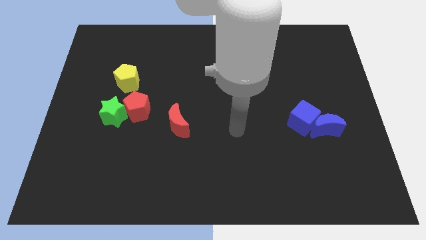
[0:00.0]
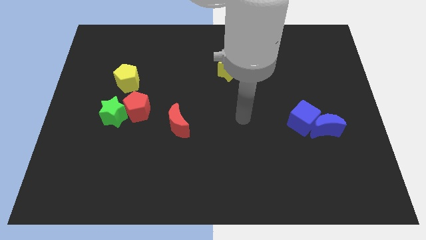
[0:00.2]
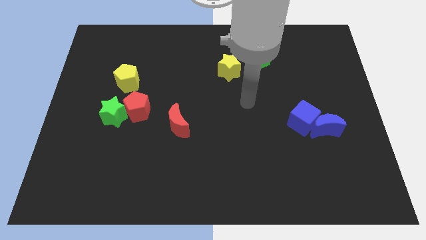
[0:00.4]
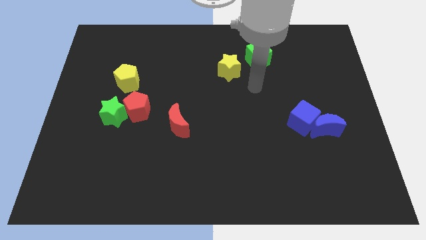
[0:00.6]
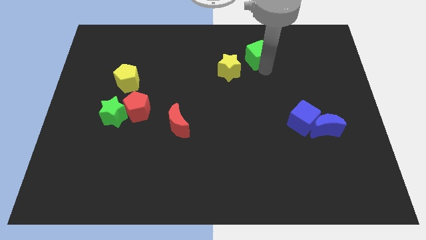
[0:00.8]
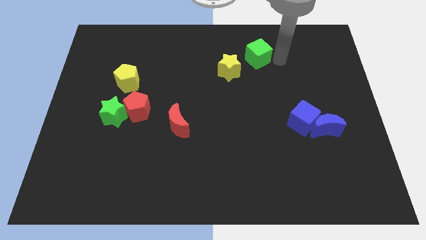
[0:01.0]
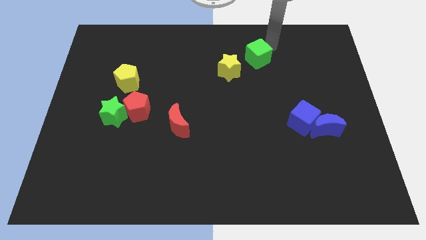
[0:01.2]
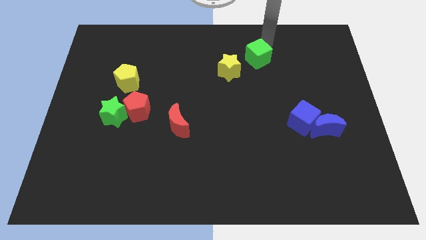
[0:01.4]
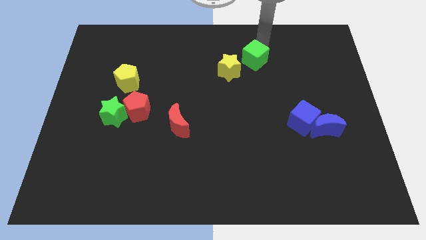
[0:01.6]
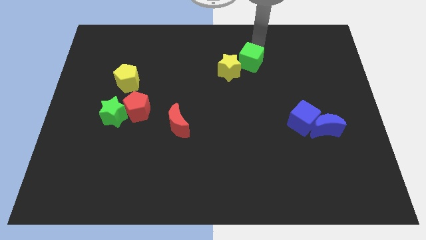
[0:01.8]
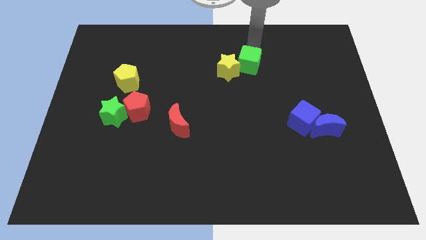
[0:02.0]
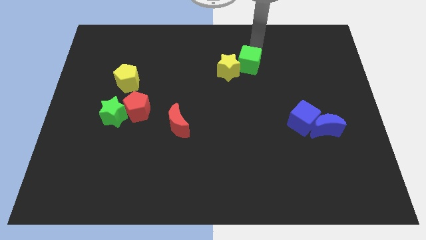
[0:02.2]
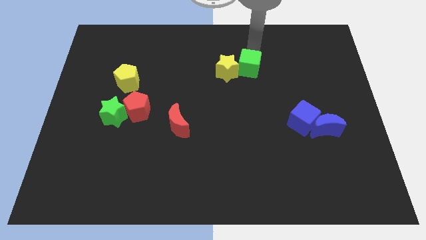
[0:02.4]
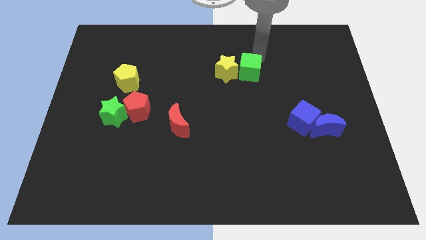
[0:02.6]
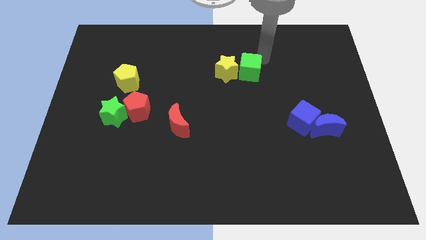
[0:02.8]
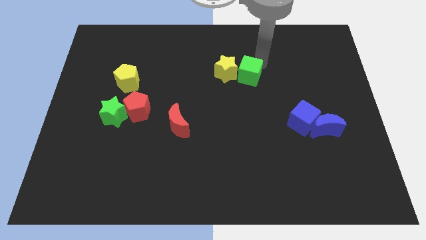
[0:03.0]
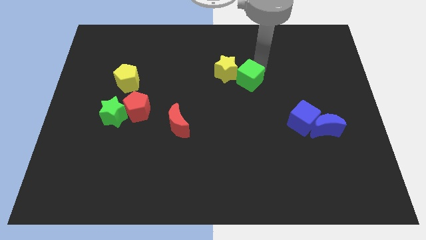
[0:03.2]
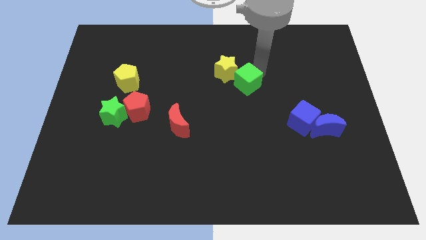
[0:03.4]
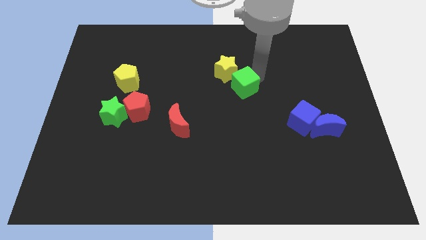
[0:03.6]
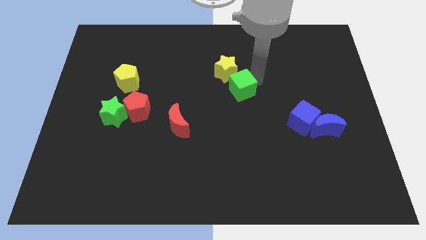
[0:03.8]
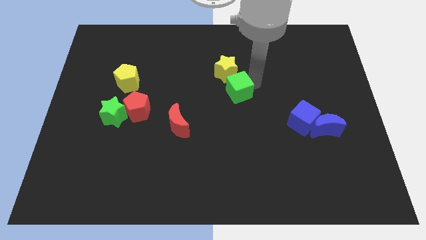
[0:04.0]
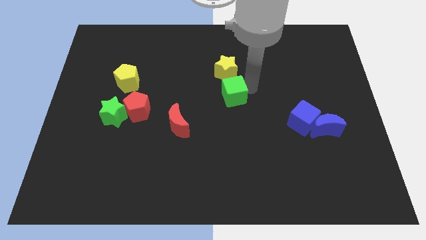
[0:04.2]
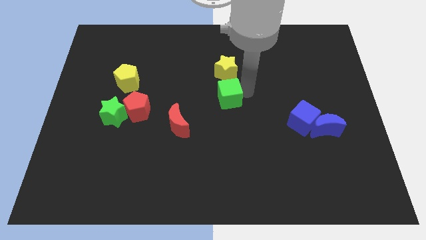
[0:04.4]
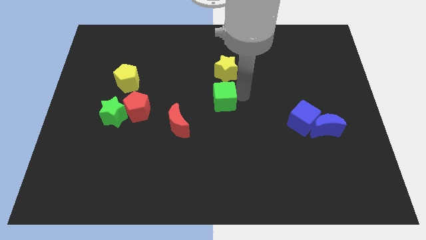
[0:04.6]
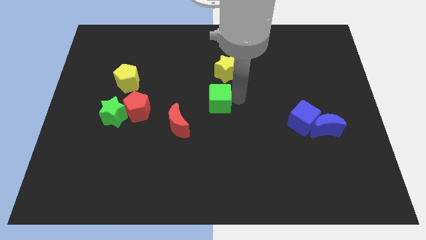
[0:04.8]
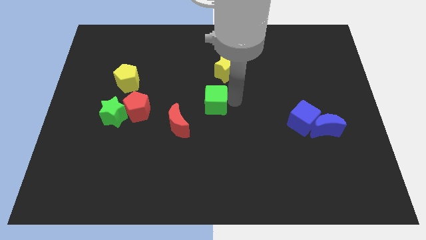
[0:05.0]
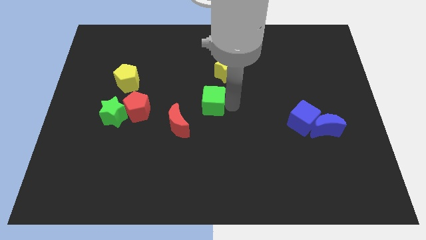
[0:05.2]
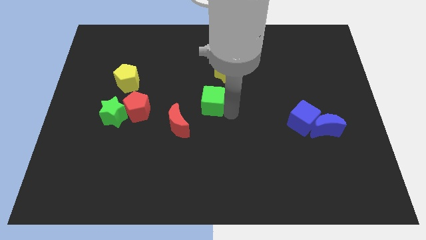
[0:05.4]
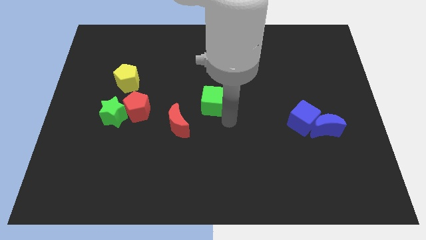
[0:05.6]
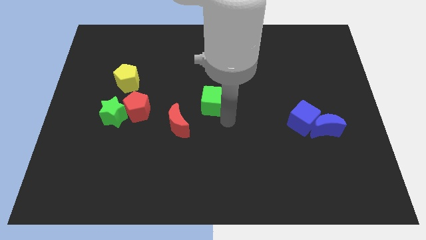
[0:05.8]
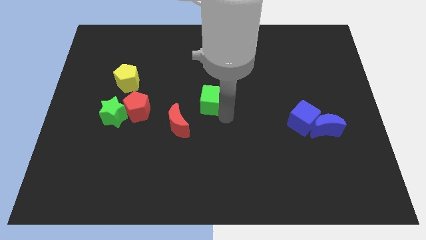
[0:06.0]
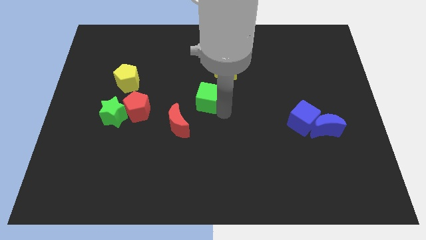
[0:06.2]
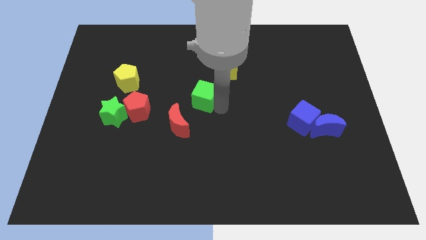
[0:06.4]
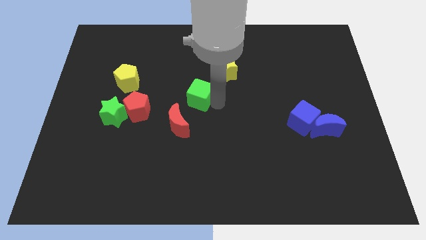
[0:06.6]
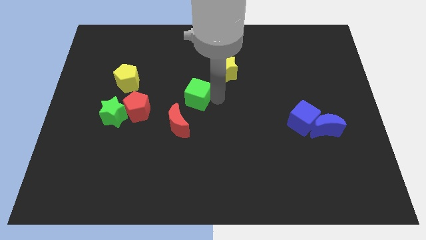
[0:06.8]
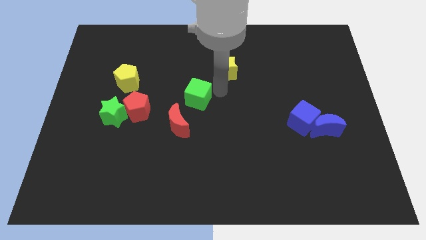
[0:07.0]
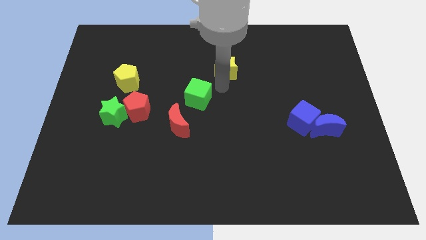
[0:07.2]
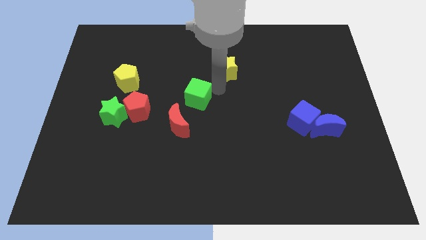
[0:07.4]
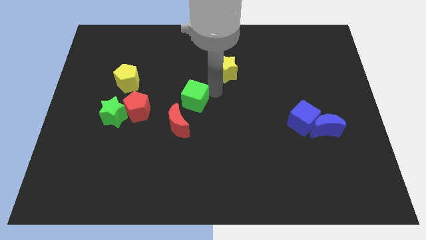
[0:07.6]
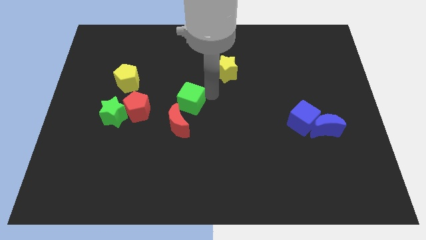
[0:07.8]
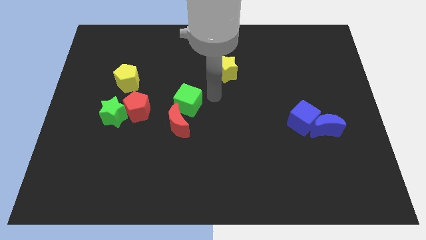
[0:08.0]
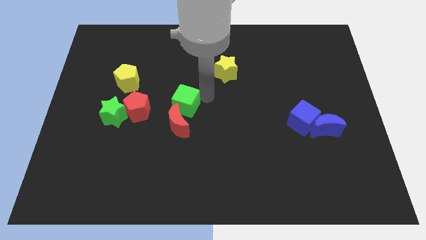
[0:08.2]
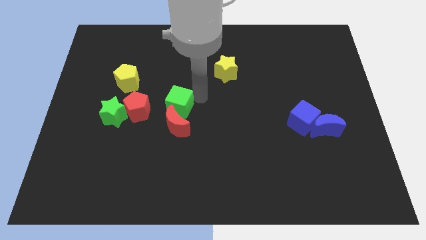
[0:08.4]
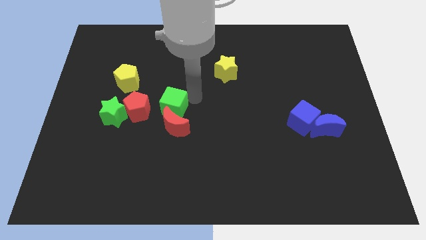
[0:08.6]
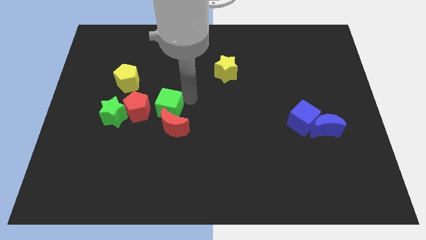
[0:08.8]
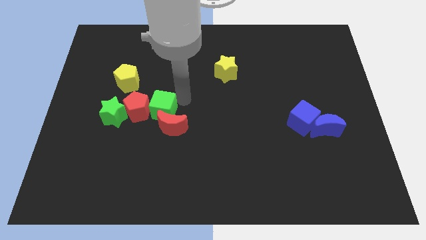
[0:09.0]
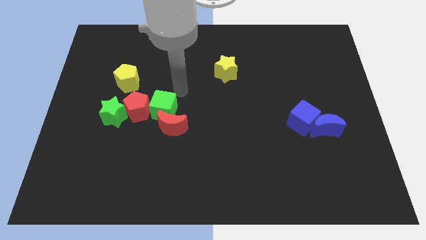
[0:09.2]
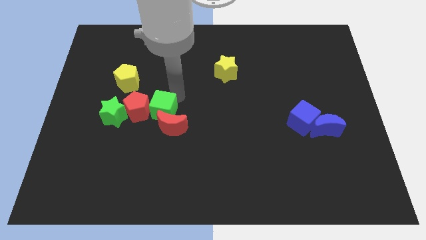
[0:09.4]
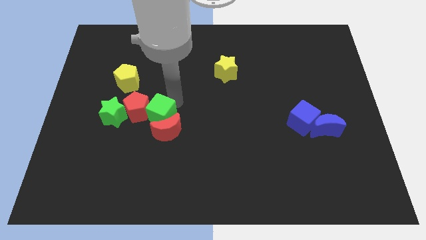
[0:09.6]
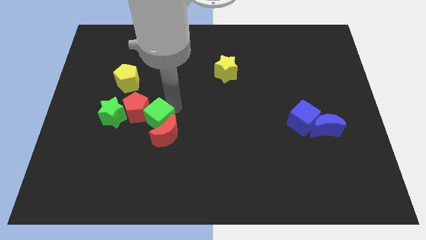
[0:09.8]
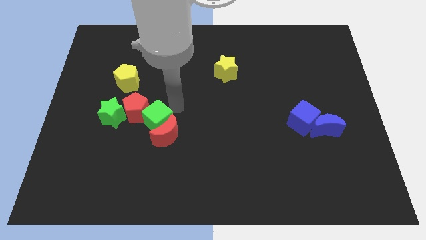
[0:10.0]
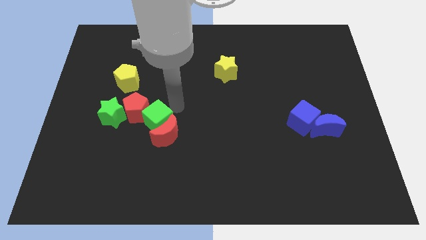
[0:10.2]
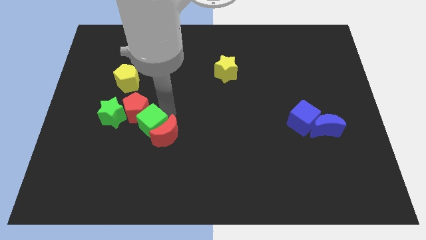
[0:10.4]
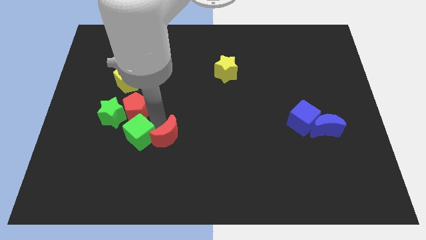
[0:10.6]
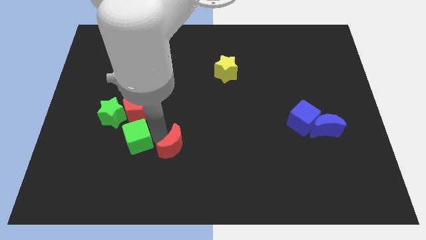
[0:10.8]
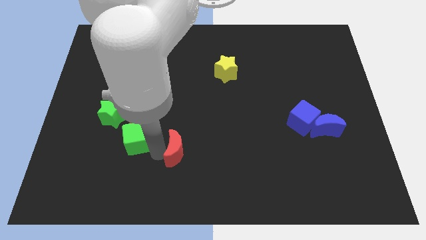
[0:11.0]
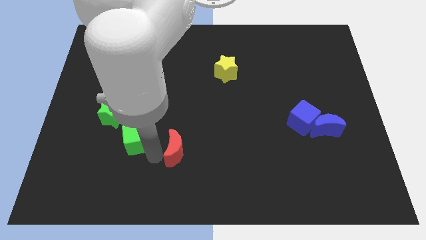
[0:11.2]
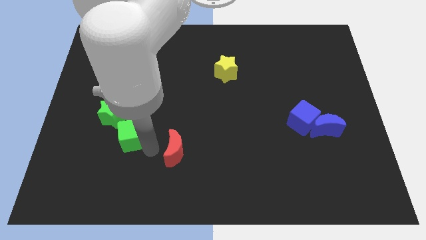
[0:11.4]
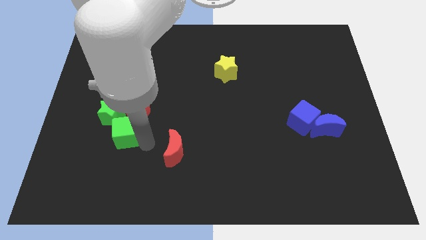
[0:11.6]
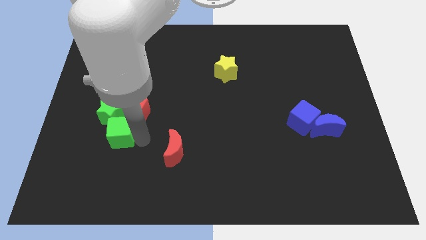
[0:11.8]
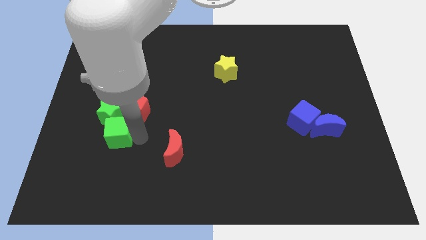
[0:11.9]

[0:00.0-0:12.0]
push the green cube to the green star

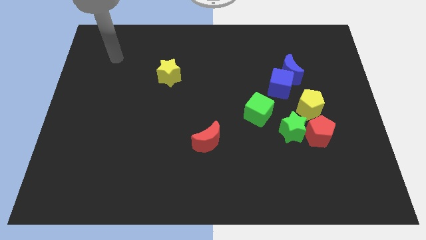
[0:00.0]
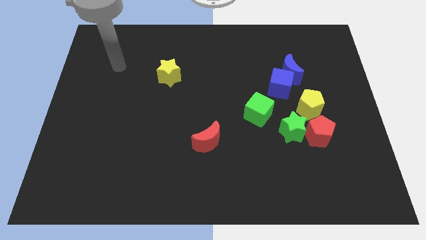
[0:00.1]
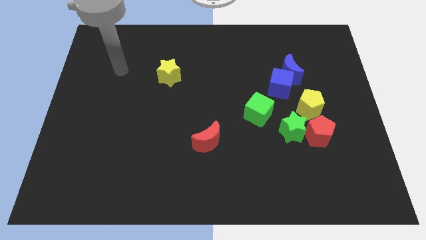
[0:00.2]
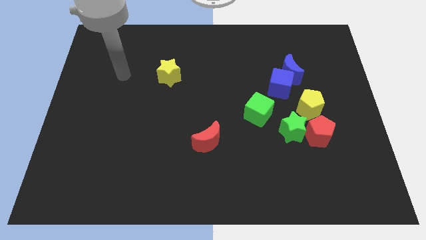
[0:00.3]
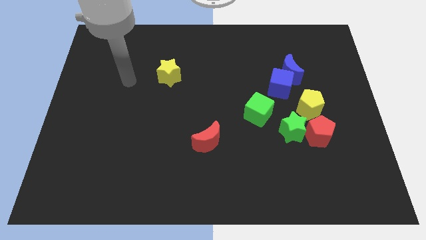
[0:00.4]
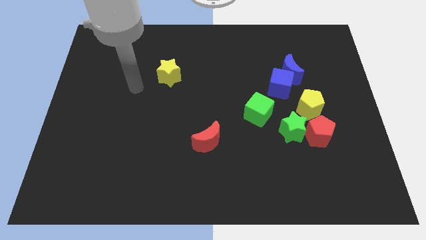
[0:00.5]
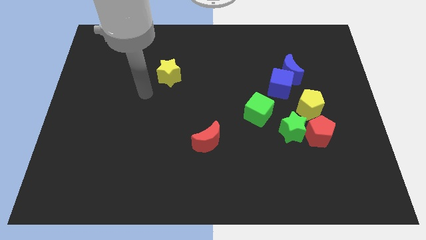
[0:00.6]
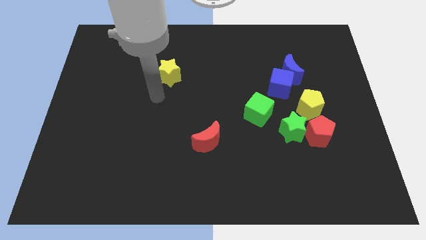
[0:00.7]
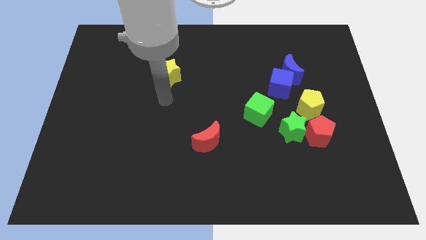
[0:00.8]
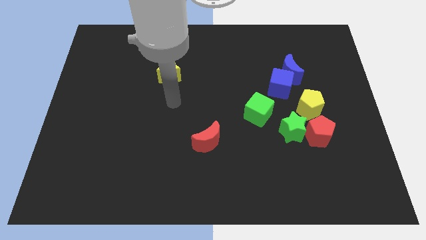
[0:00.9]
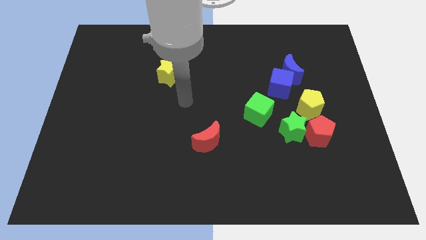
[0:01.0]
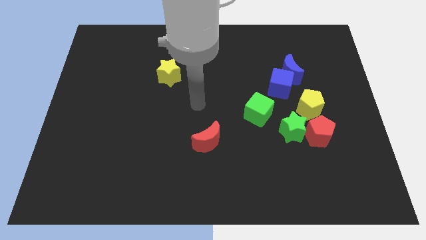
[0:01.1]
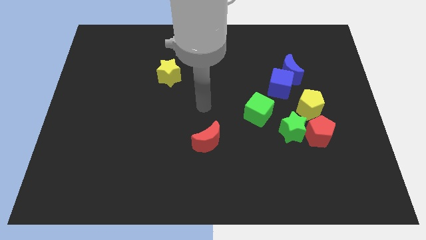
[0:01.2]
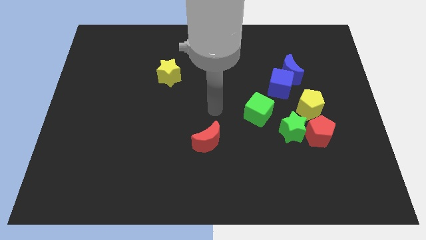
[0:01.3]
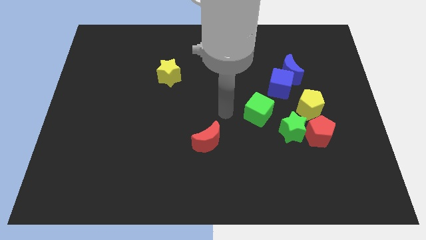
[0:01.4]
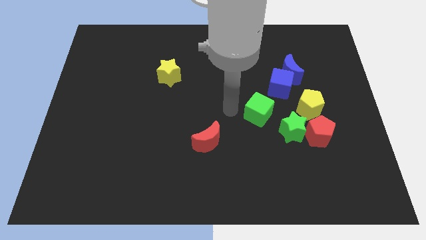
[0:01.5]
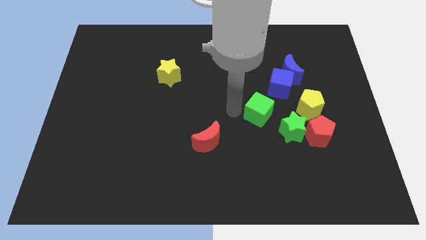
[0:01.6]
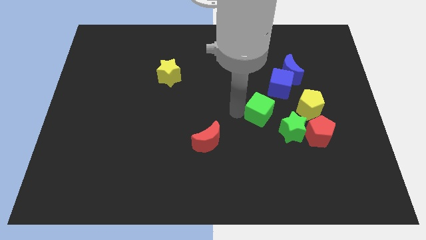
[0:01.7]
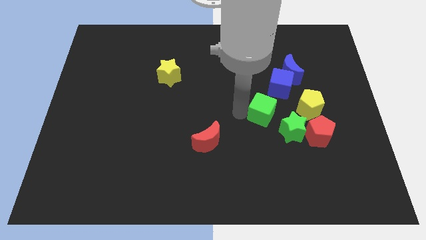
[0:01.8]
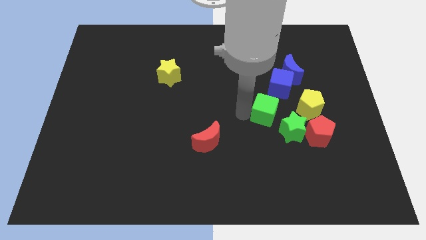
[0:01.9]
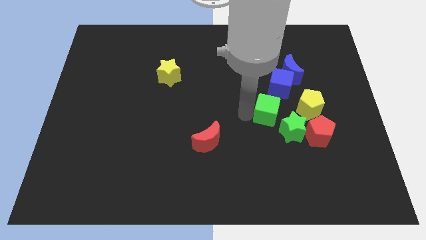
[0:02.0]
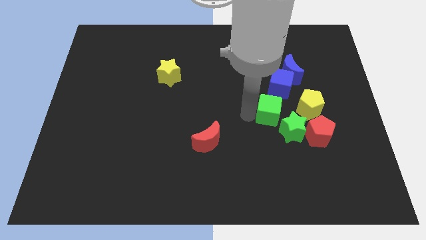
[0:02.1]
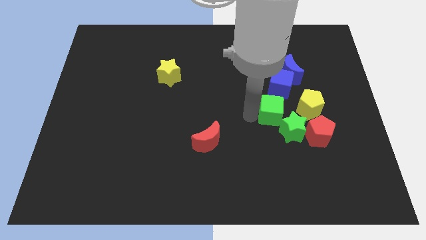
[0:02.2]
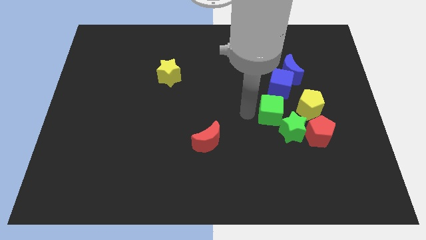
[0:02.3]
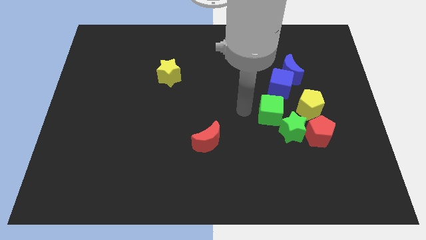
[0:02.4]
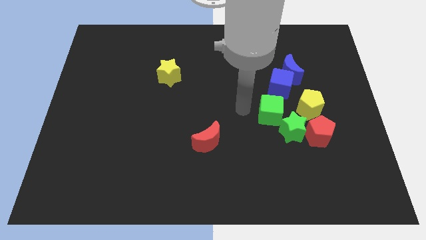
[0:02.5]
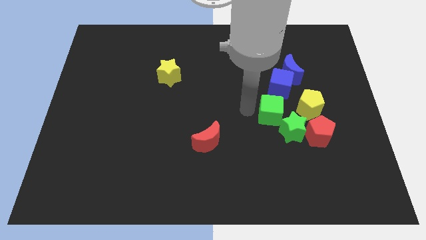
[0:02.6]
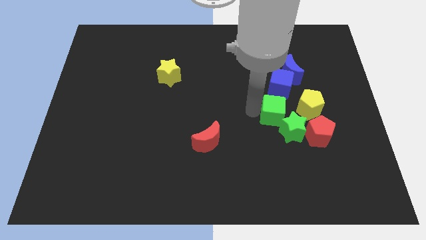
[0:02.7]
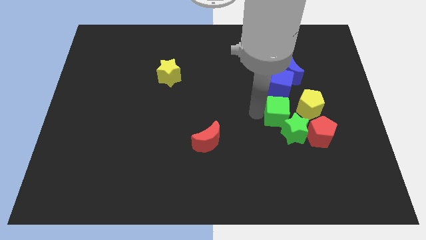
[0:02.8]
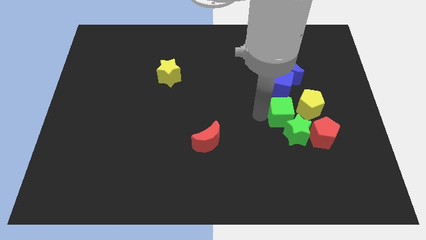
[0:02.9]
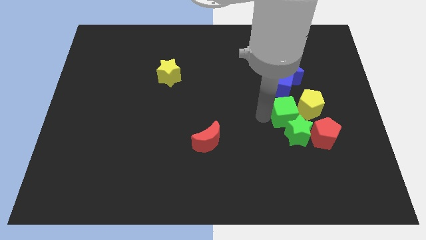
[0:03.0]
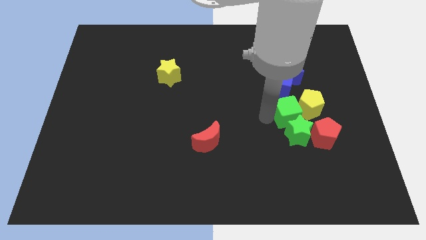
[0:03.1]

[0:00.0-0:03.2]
move the green cube to the yellow pentagon
